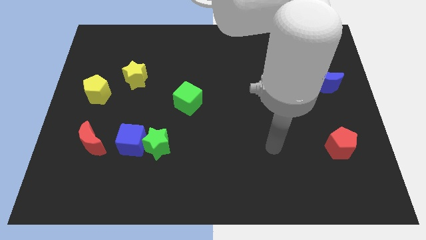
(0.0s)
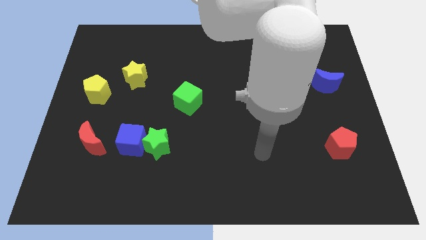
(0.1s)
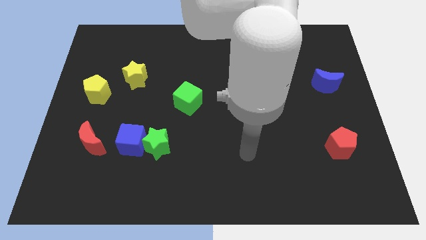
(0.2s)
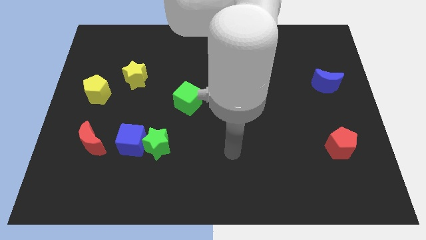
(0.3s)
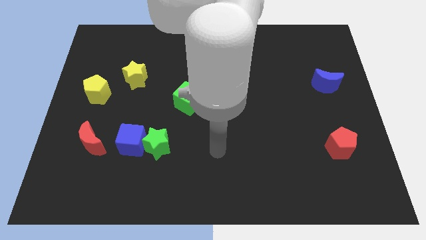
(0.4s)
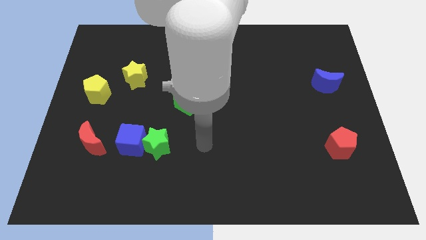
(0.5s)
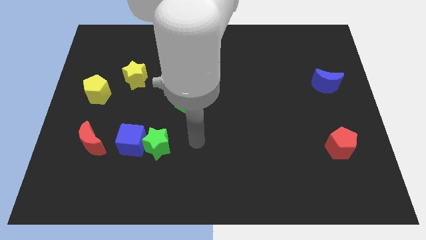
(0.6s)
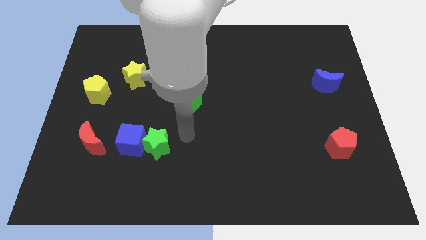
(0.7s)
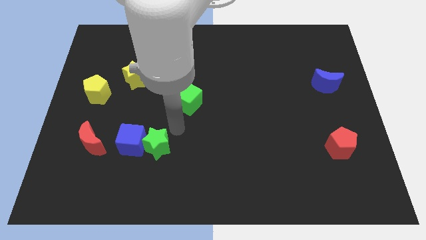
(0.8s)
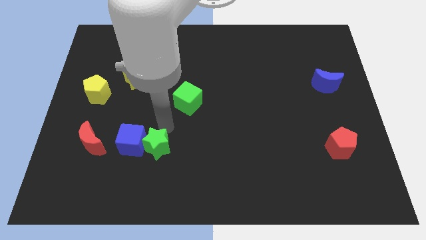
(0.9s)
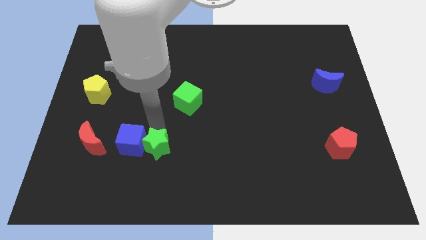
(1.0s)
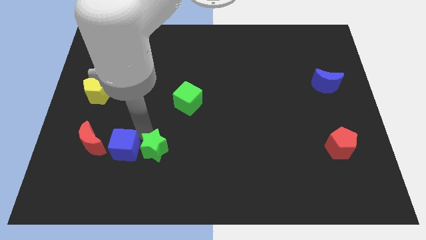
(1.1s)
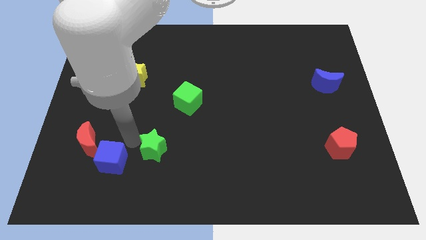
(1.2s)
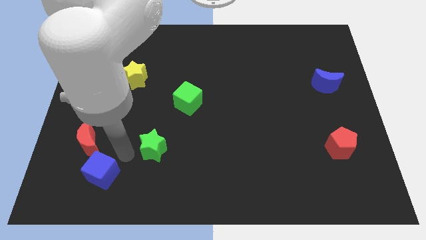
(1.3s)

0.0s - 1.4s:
move the green star away from the blue cube

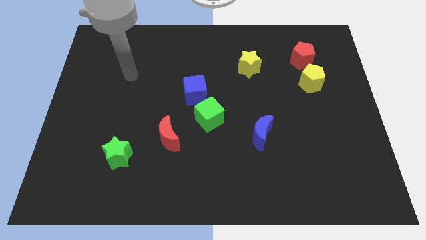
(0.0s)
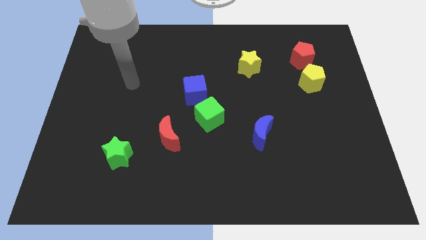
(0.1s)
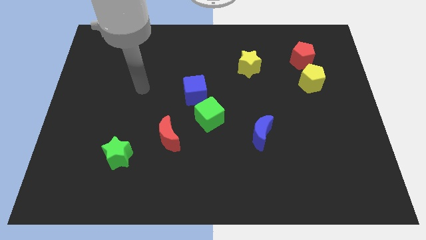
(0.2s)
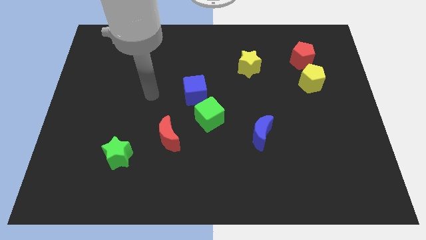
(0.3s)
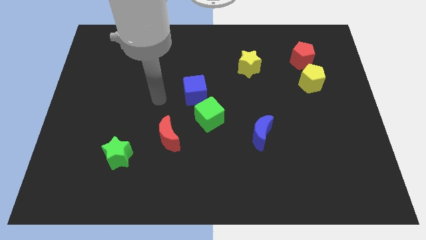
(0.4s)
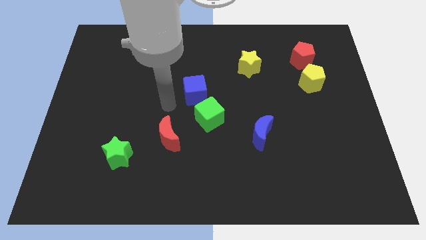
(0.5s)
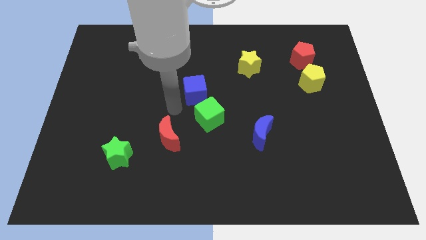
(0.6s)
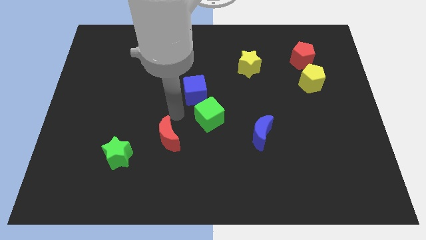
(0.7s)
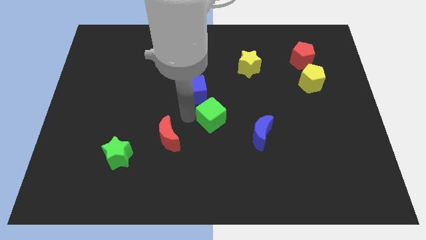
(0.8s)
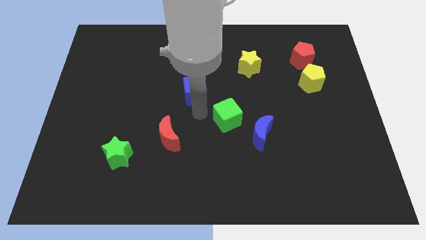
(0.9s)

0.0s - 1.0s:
pull the blue cube apart from the green cube

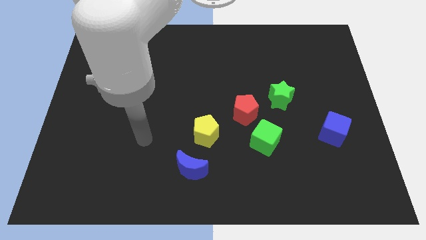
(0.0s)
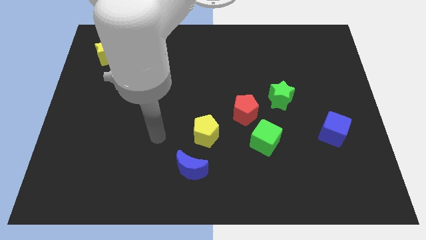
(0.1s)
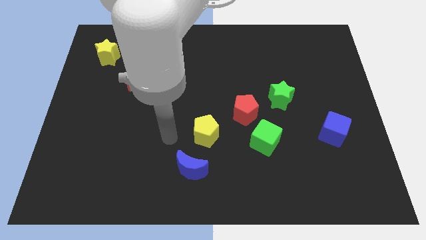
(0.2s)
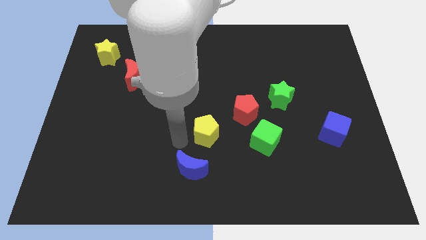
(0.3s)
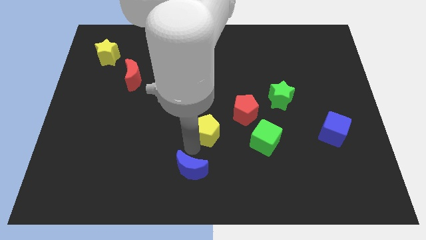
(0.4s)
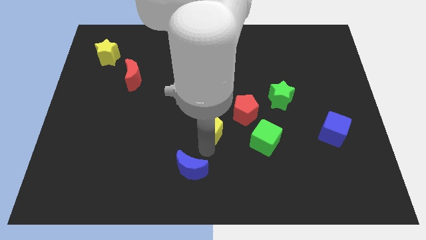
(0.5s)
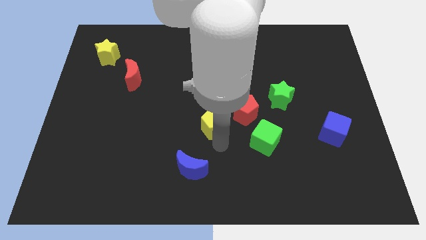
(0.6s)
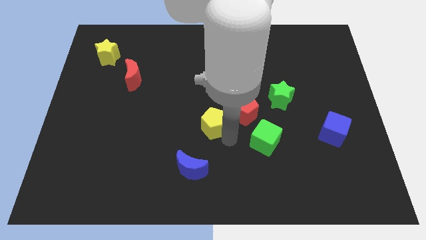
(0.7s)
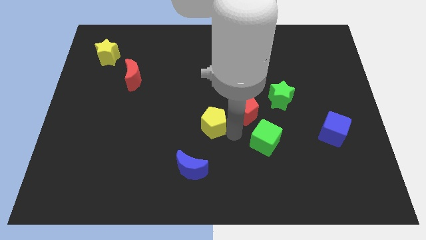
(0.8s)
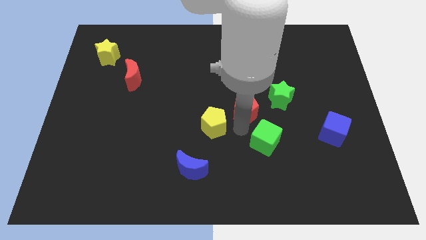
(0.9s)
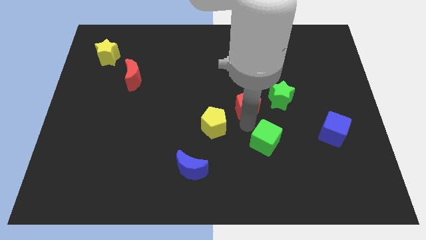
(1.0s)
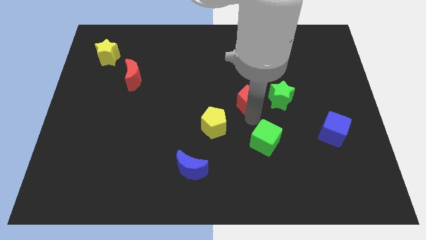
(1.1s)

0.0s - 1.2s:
separate the green cube from the red pentagon

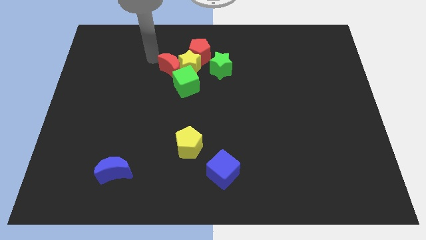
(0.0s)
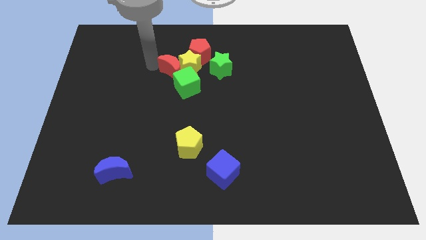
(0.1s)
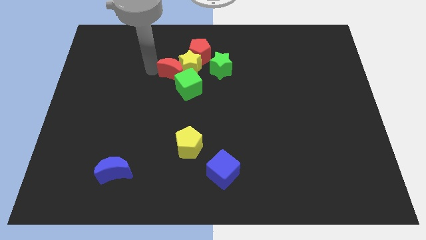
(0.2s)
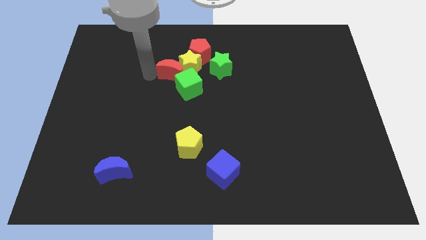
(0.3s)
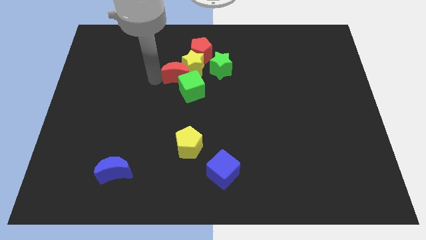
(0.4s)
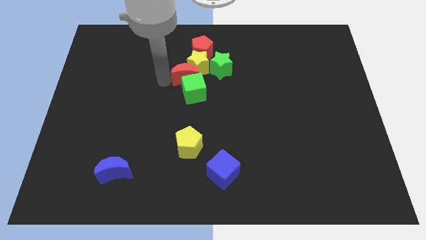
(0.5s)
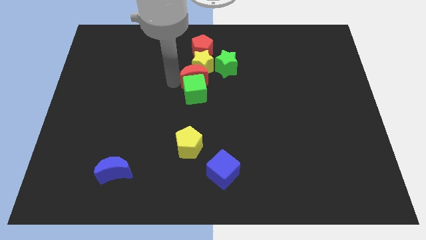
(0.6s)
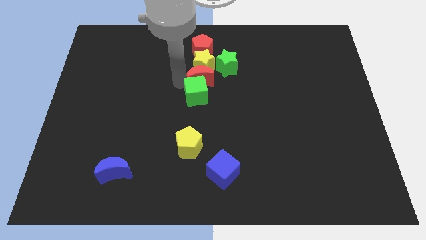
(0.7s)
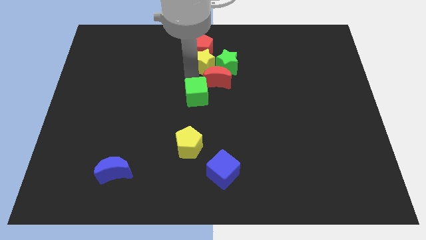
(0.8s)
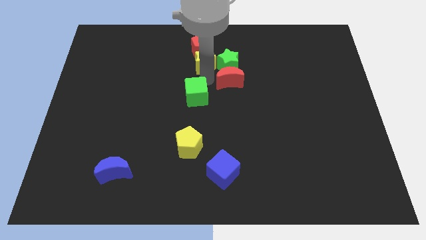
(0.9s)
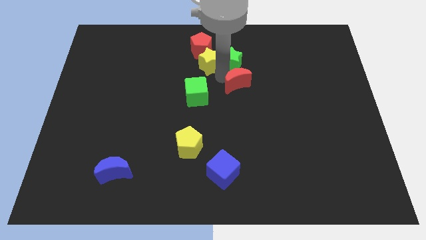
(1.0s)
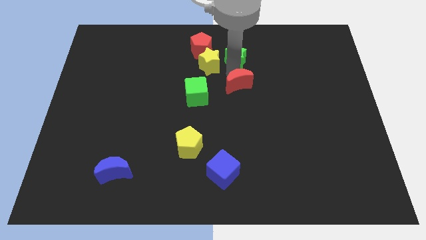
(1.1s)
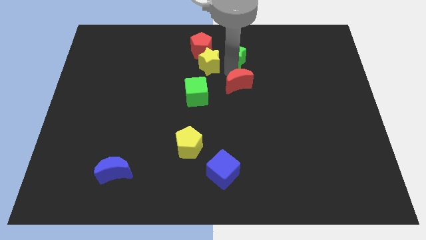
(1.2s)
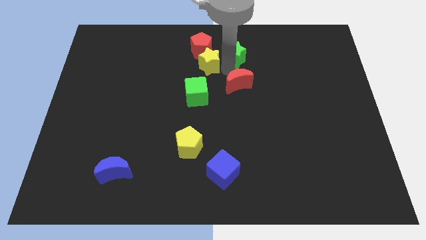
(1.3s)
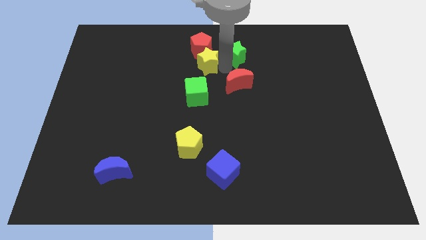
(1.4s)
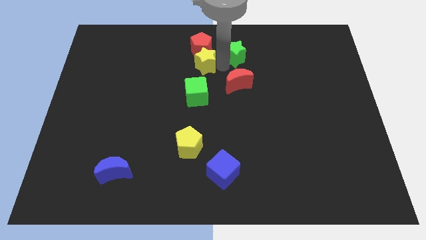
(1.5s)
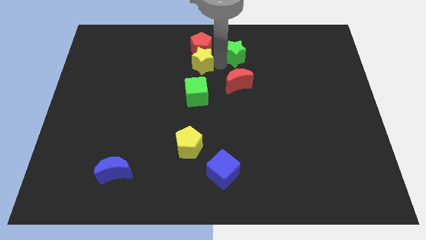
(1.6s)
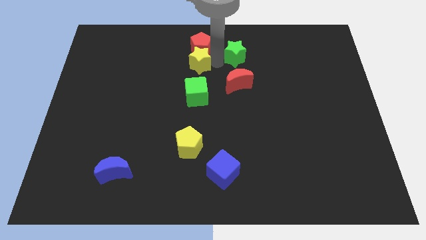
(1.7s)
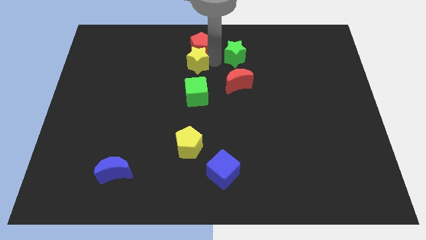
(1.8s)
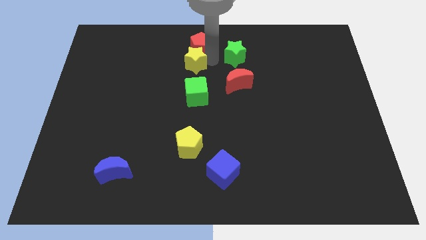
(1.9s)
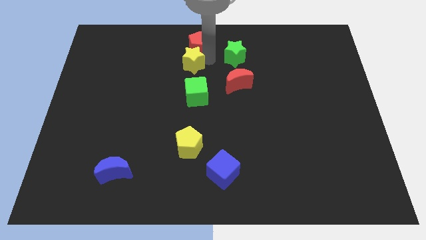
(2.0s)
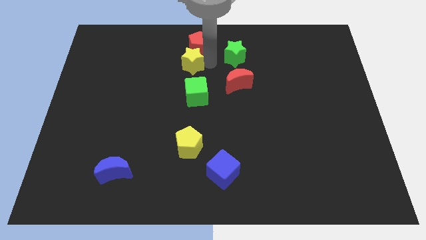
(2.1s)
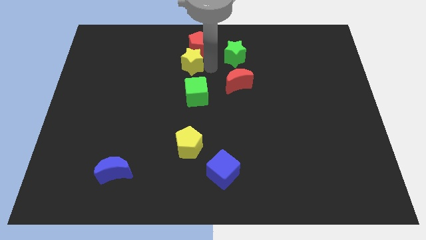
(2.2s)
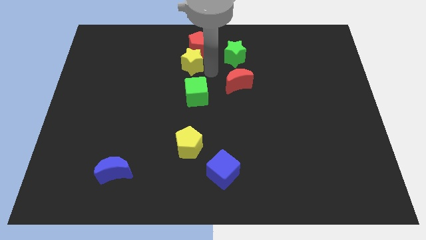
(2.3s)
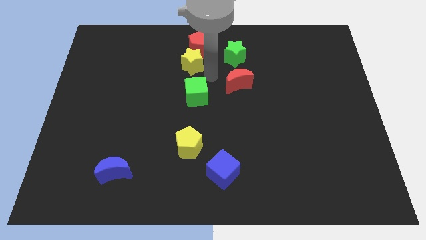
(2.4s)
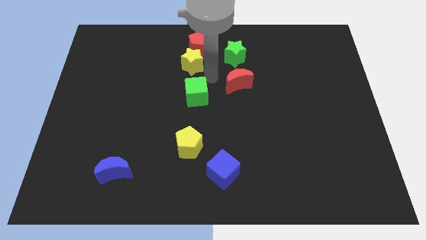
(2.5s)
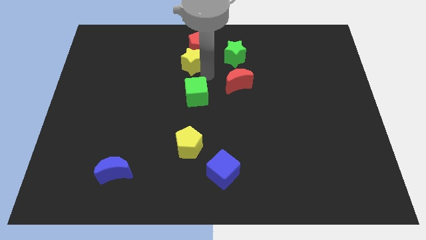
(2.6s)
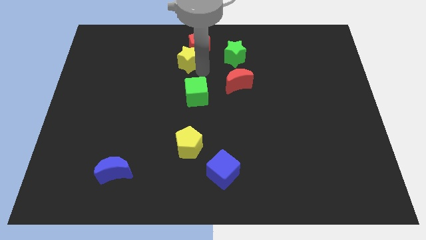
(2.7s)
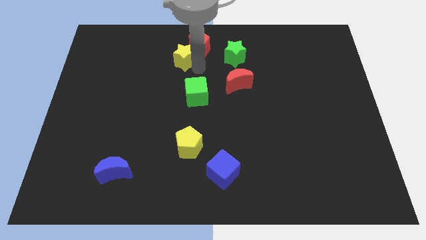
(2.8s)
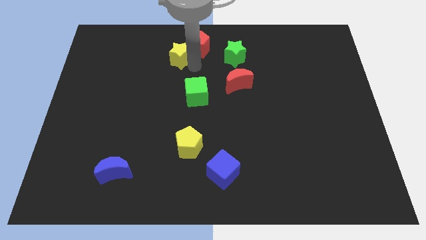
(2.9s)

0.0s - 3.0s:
separate the yellow star from the clump

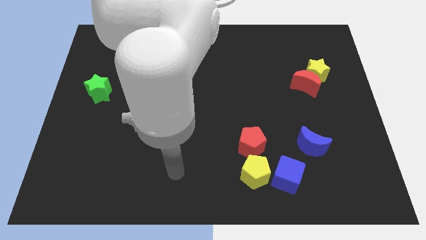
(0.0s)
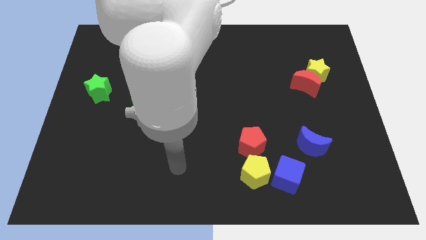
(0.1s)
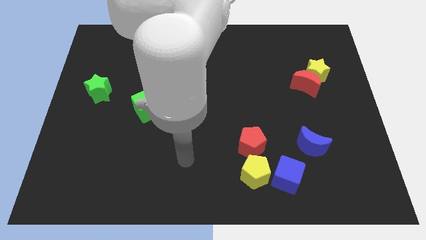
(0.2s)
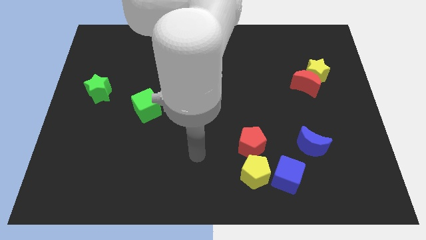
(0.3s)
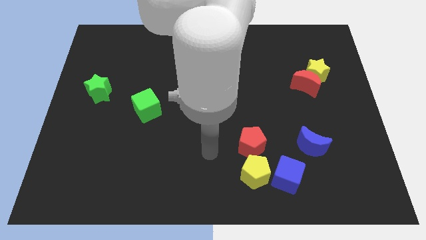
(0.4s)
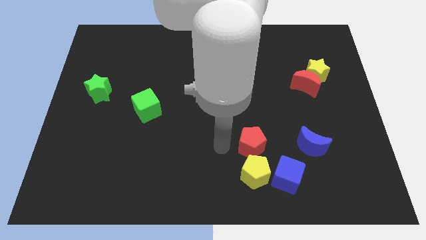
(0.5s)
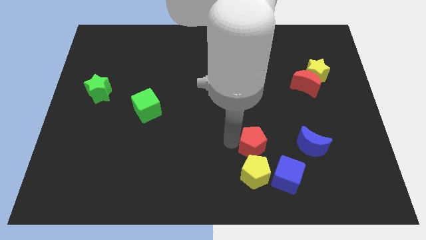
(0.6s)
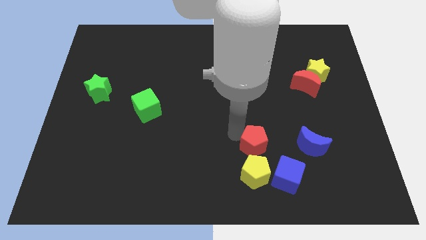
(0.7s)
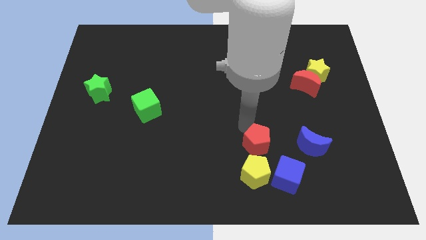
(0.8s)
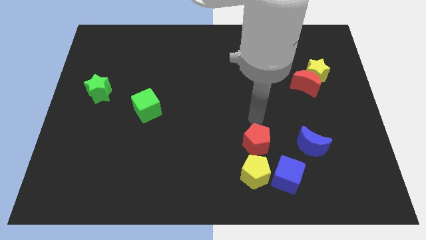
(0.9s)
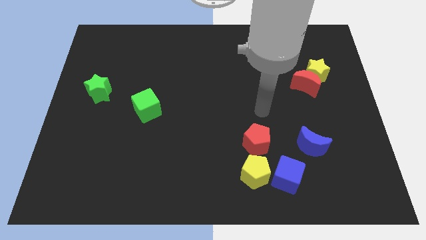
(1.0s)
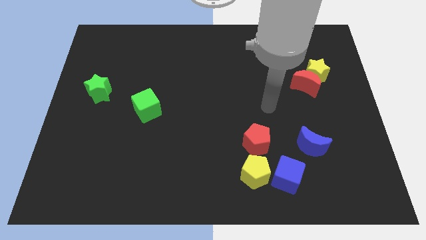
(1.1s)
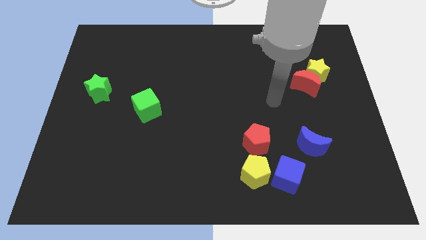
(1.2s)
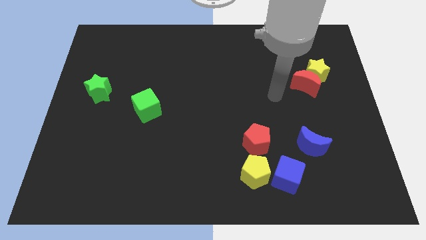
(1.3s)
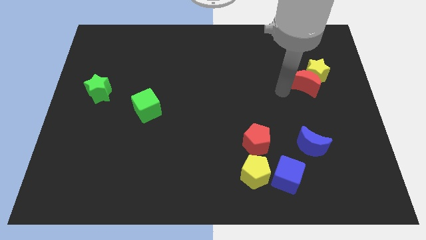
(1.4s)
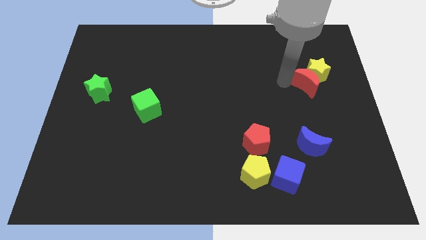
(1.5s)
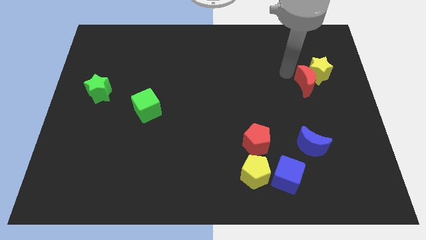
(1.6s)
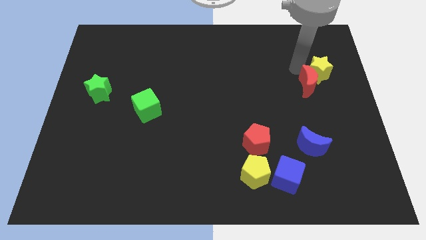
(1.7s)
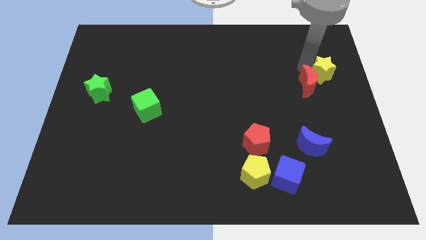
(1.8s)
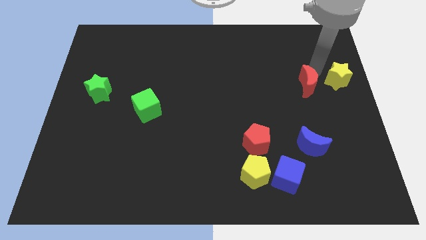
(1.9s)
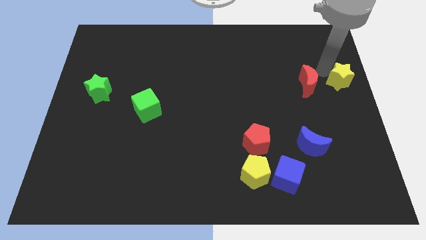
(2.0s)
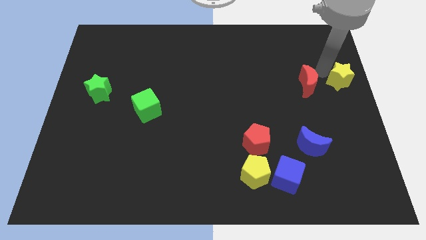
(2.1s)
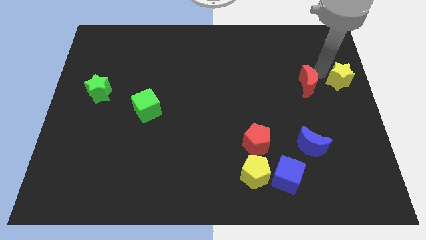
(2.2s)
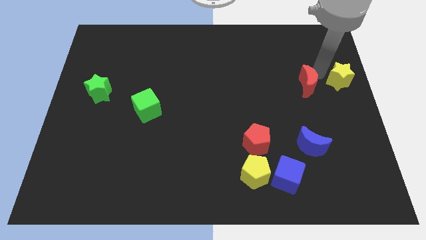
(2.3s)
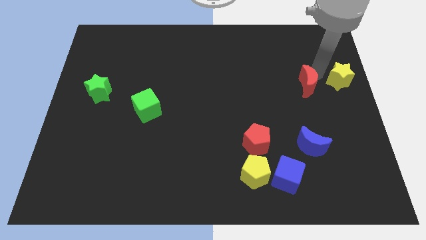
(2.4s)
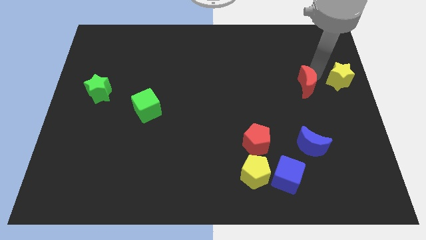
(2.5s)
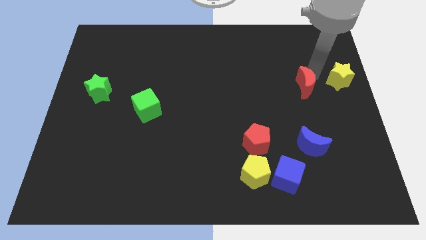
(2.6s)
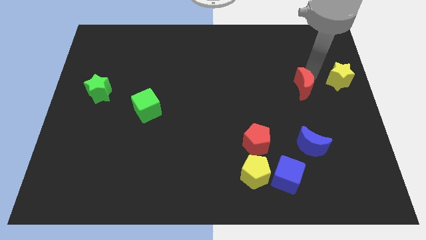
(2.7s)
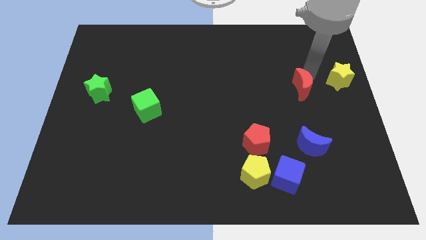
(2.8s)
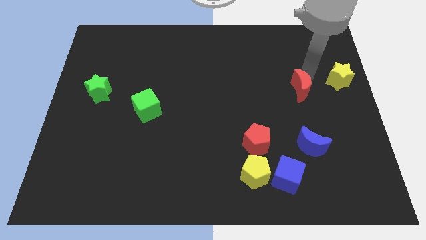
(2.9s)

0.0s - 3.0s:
separate the red moon from the yellow star

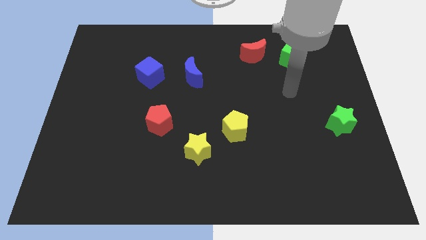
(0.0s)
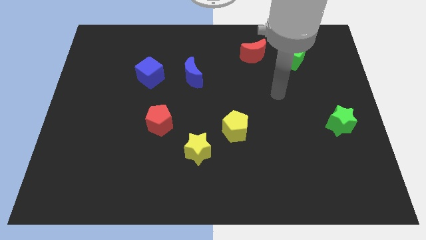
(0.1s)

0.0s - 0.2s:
separate the yellow star from the yellow pentagon
